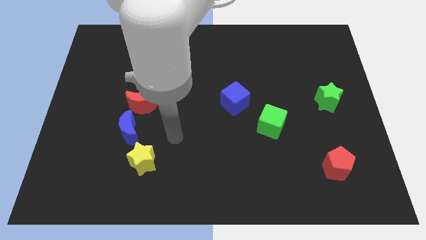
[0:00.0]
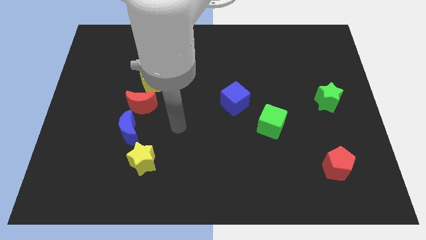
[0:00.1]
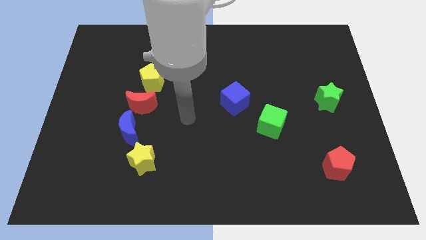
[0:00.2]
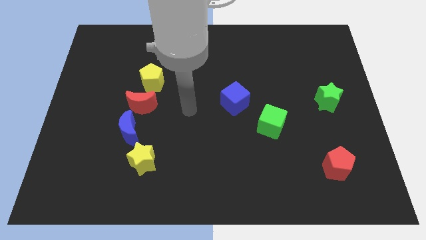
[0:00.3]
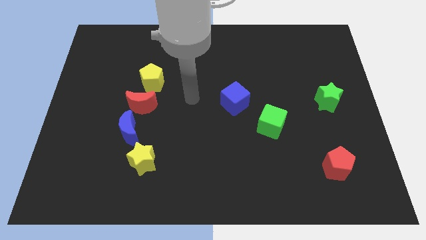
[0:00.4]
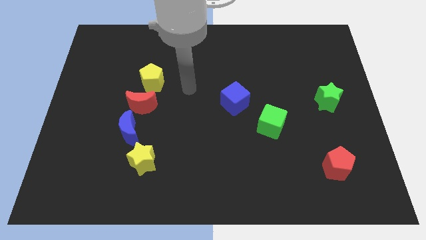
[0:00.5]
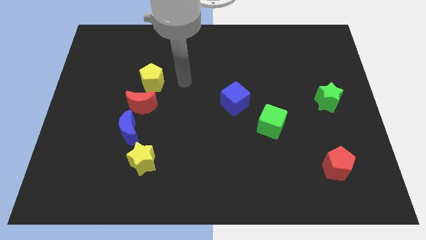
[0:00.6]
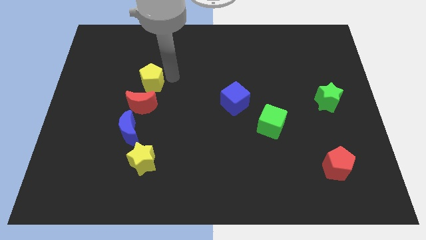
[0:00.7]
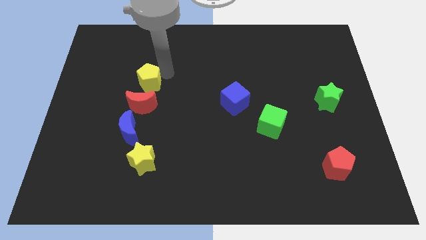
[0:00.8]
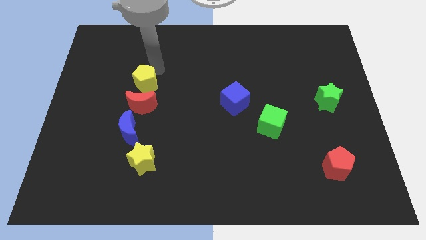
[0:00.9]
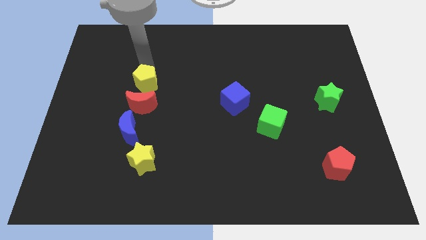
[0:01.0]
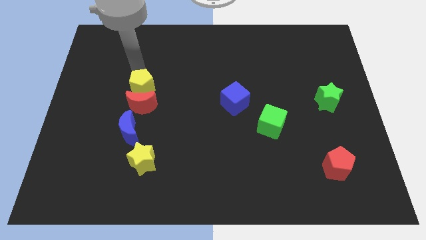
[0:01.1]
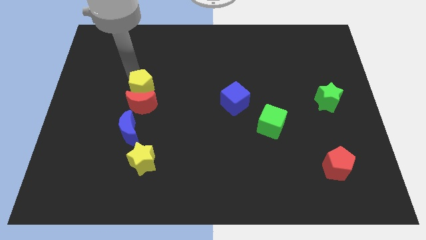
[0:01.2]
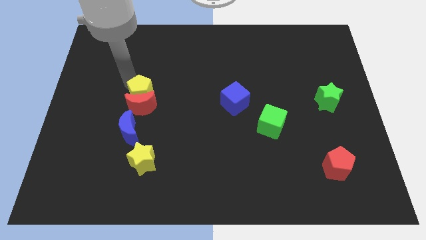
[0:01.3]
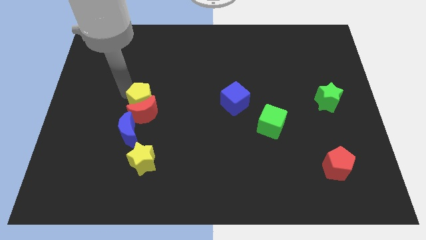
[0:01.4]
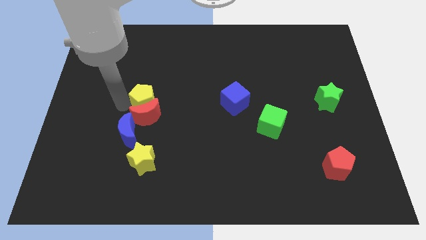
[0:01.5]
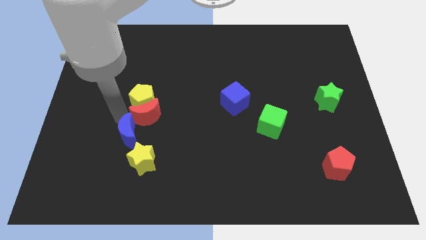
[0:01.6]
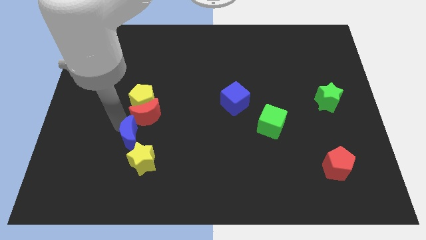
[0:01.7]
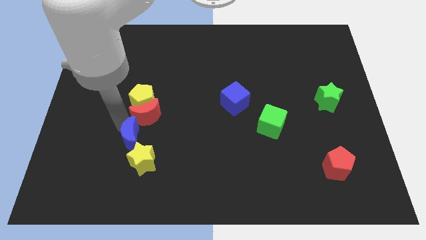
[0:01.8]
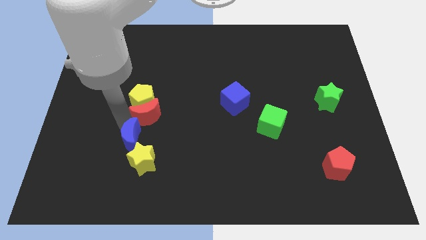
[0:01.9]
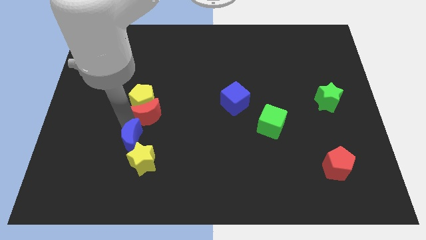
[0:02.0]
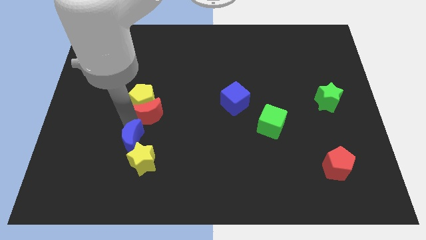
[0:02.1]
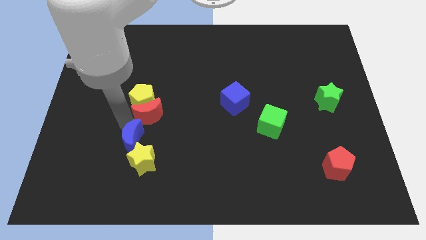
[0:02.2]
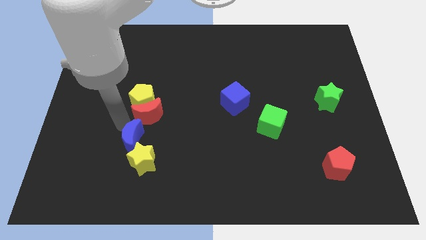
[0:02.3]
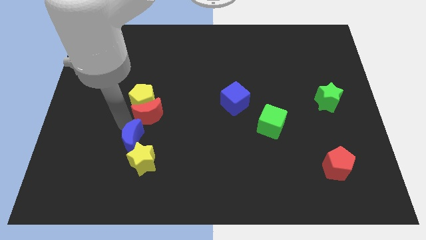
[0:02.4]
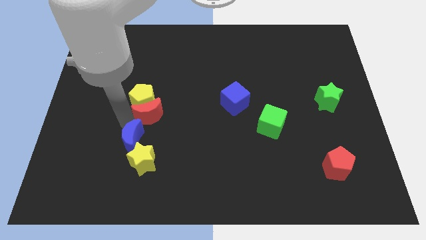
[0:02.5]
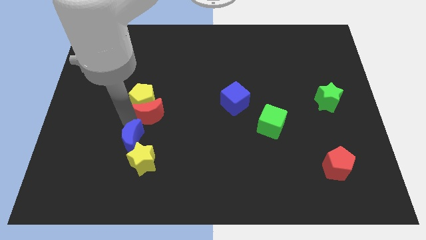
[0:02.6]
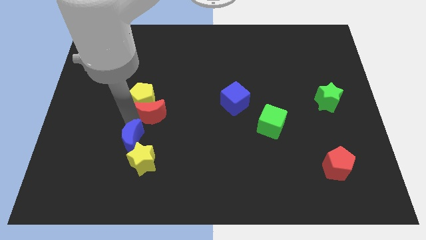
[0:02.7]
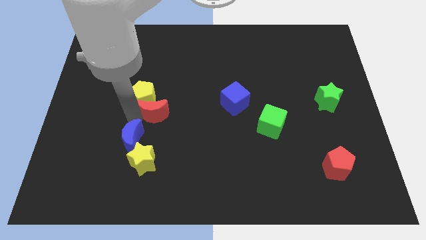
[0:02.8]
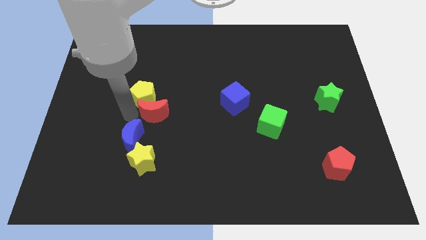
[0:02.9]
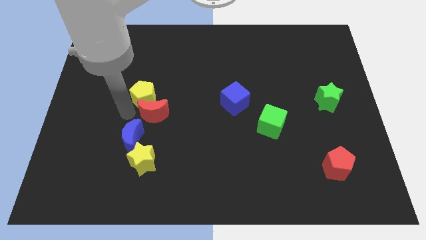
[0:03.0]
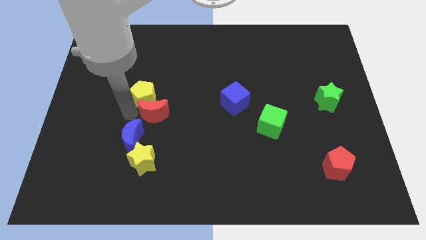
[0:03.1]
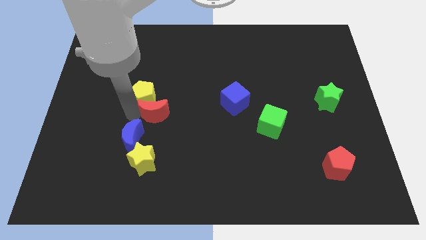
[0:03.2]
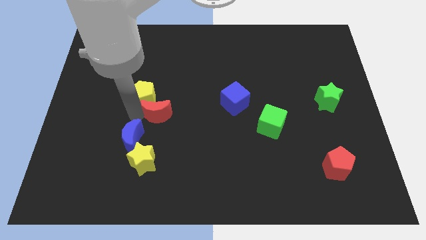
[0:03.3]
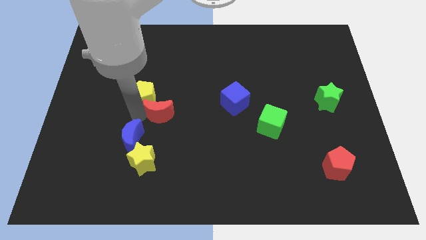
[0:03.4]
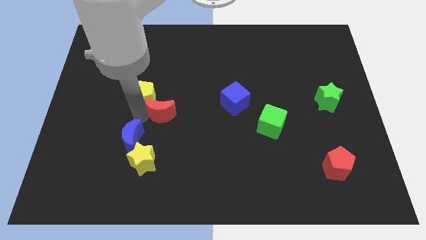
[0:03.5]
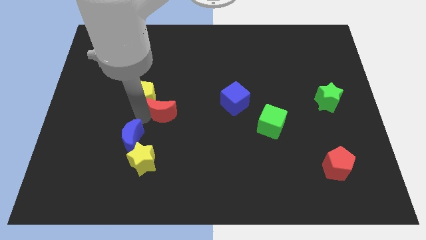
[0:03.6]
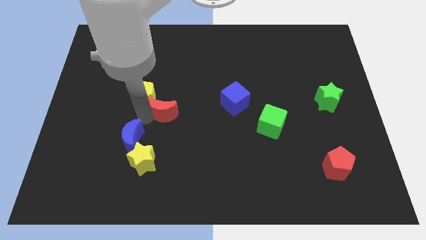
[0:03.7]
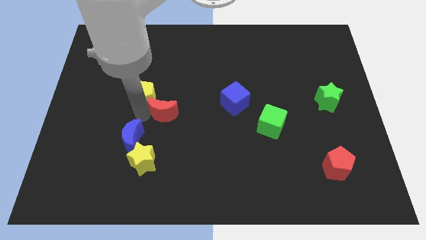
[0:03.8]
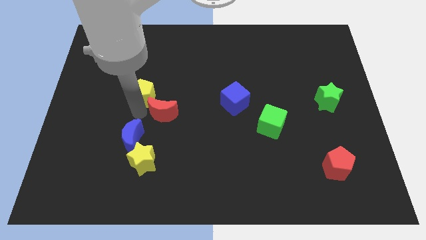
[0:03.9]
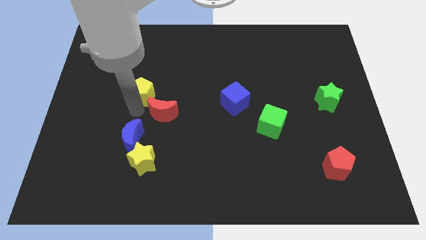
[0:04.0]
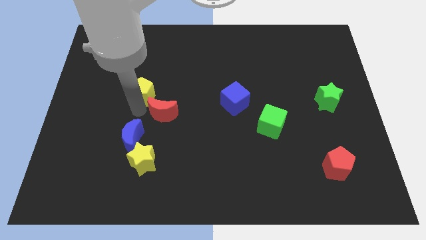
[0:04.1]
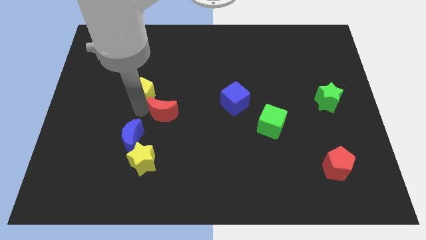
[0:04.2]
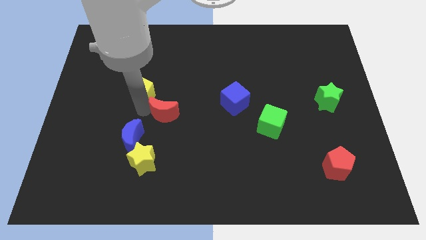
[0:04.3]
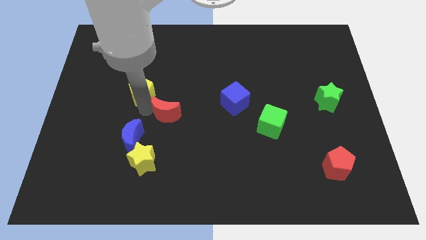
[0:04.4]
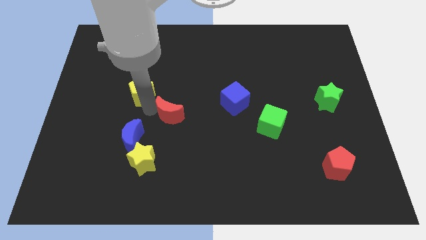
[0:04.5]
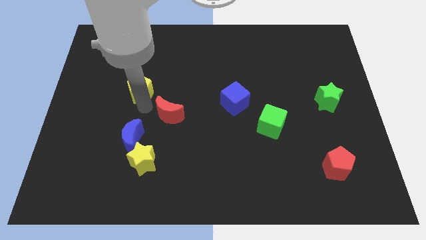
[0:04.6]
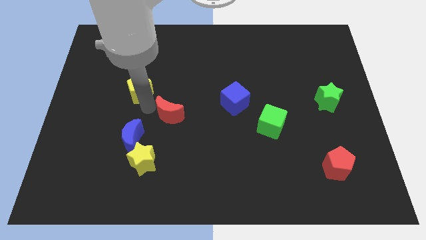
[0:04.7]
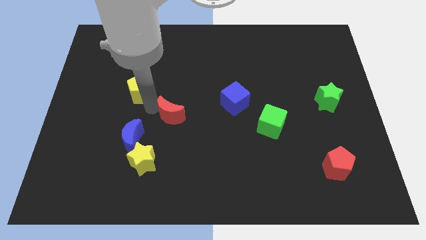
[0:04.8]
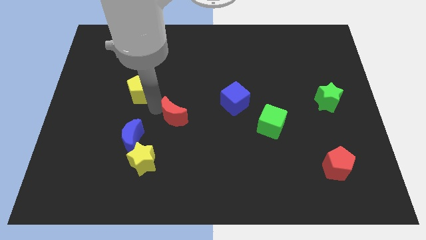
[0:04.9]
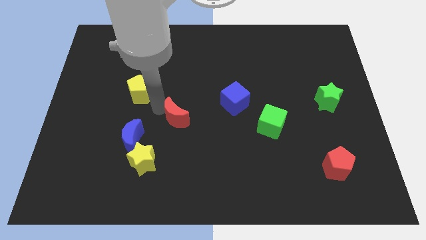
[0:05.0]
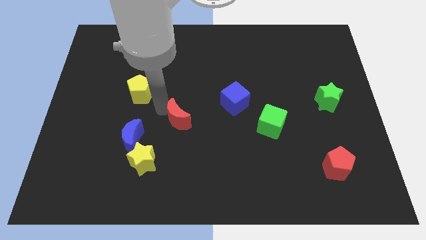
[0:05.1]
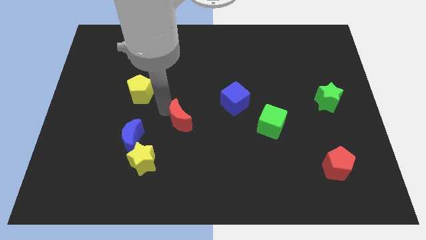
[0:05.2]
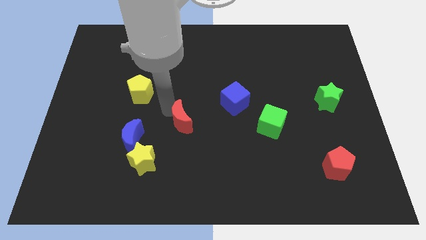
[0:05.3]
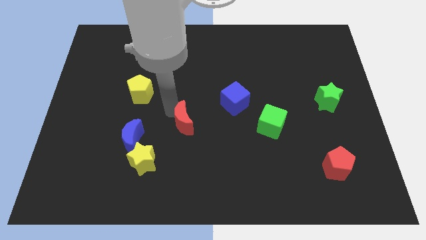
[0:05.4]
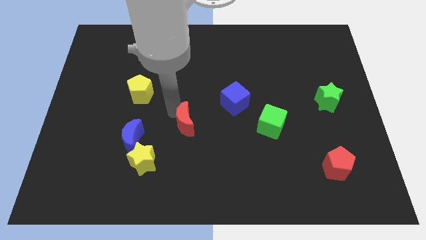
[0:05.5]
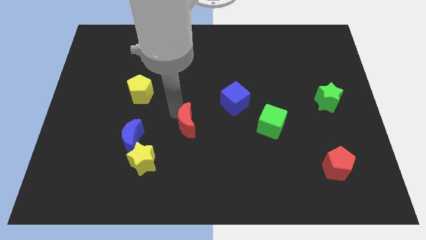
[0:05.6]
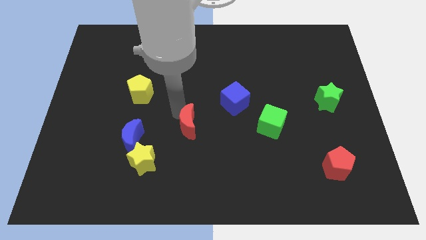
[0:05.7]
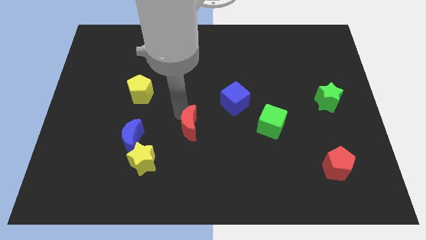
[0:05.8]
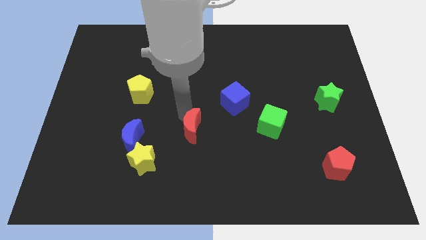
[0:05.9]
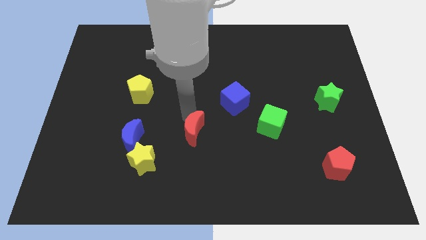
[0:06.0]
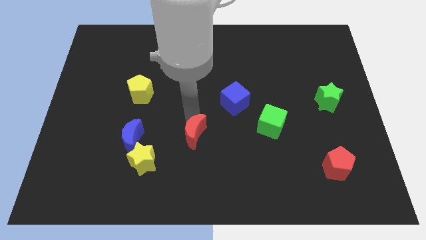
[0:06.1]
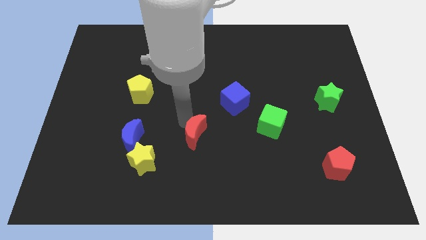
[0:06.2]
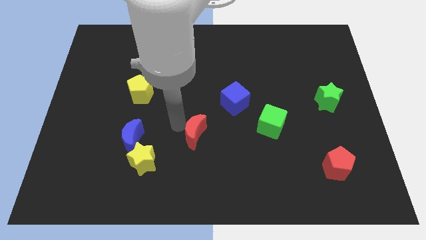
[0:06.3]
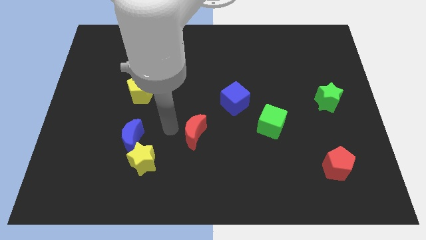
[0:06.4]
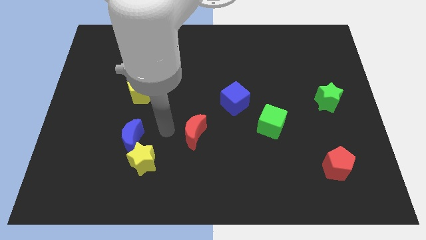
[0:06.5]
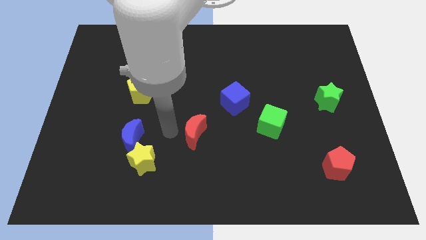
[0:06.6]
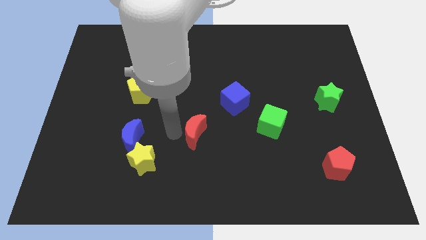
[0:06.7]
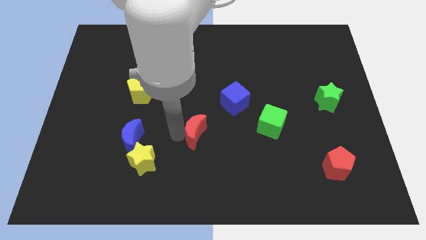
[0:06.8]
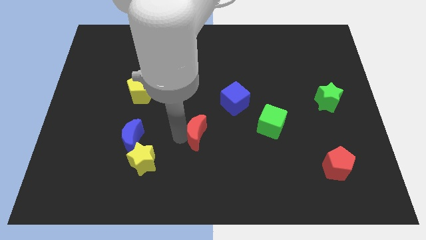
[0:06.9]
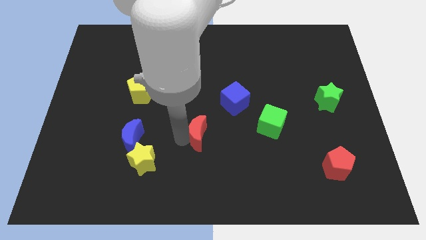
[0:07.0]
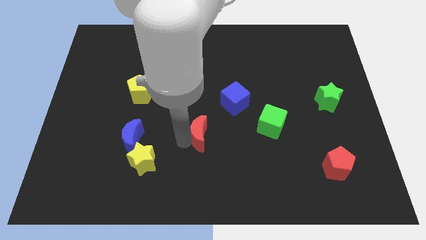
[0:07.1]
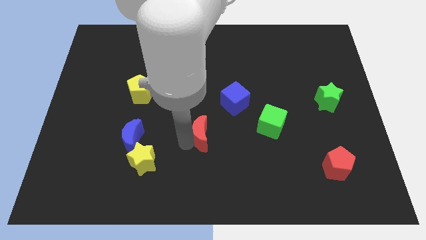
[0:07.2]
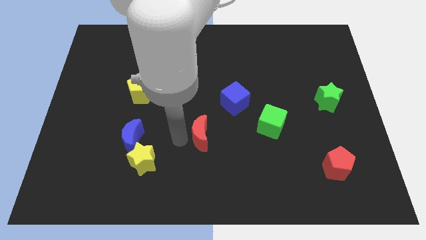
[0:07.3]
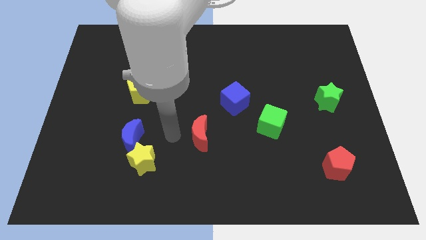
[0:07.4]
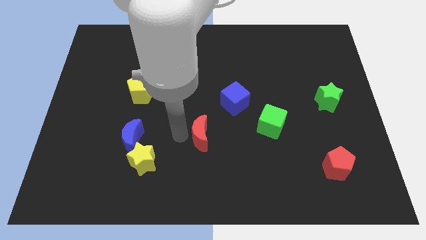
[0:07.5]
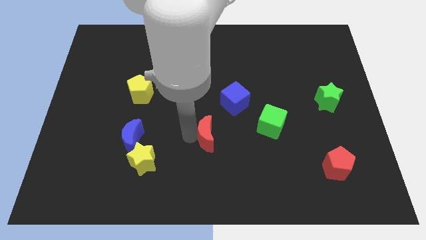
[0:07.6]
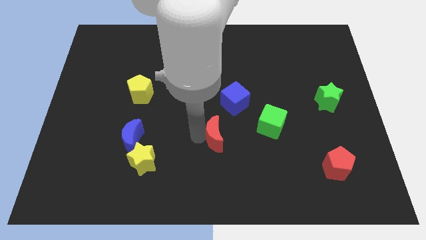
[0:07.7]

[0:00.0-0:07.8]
slide the red moon to the bottom side of the blue cube
